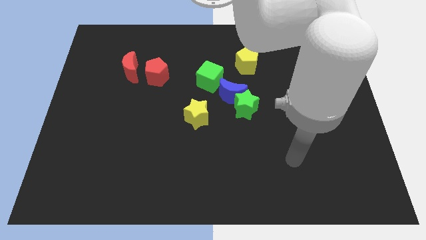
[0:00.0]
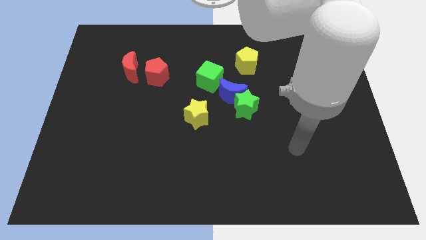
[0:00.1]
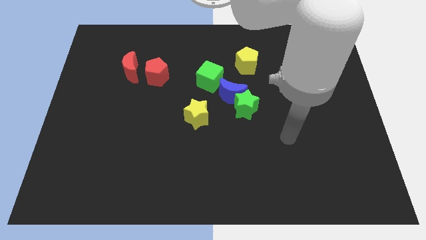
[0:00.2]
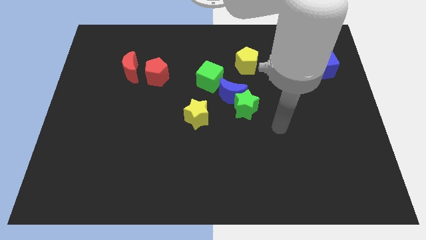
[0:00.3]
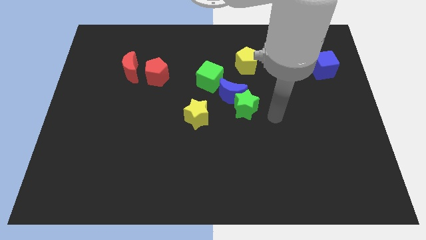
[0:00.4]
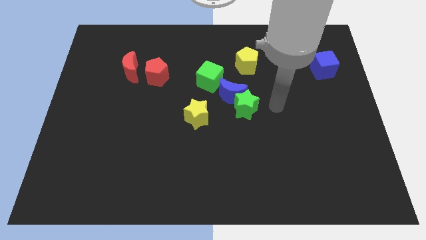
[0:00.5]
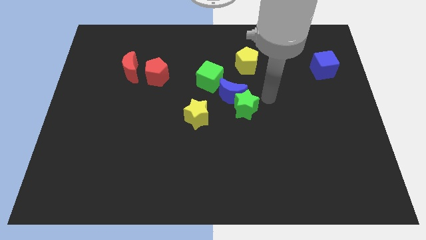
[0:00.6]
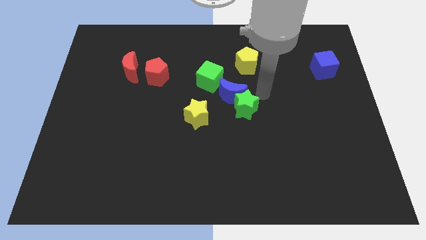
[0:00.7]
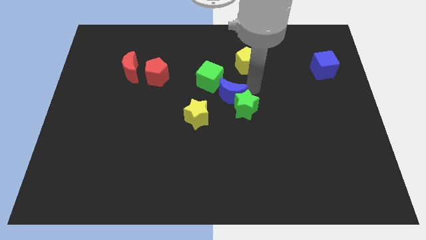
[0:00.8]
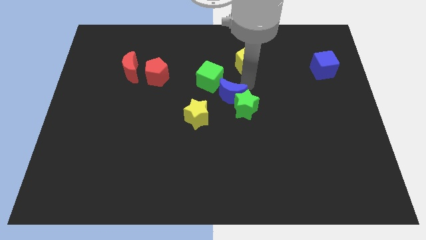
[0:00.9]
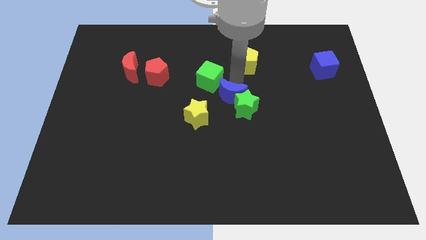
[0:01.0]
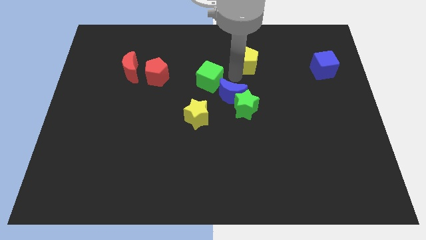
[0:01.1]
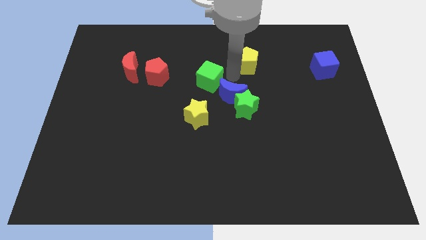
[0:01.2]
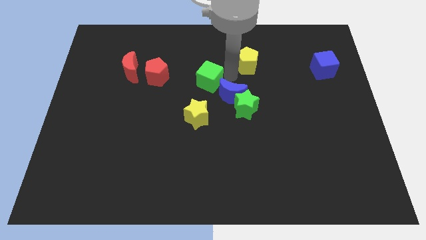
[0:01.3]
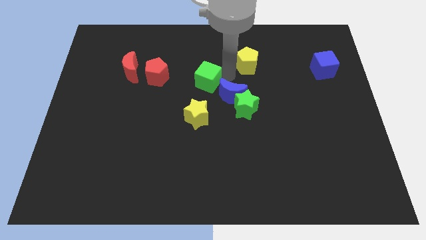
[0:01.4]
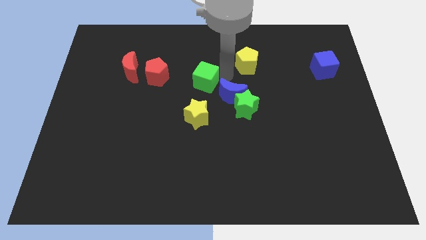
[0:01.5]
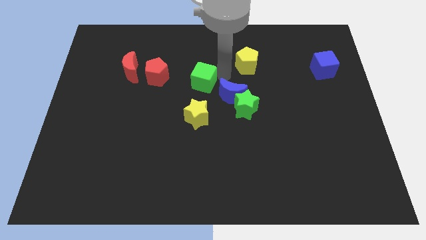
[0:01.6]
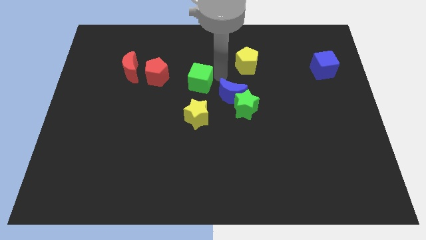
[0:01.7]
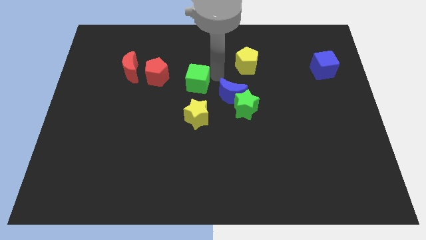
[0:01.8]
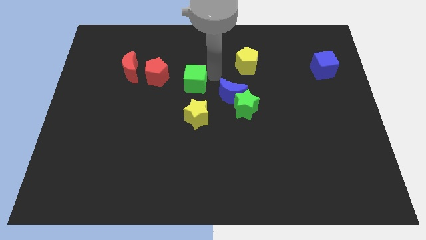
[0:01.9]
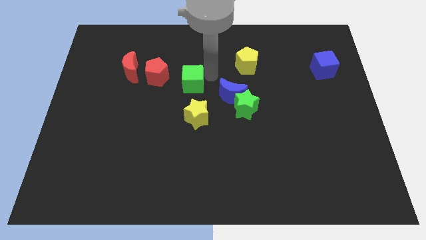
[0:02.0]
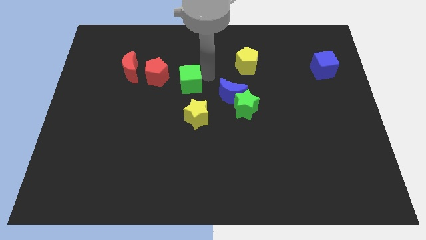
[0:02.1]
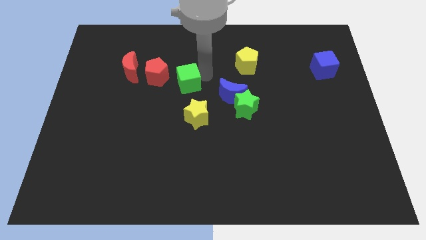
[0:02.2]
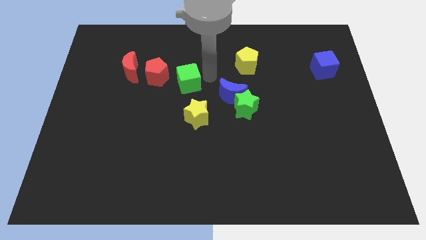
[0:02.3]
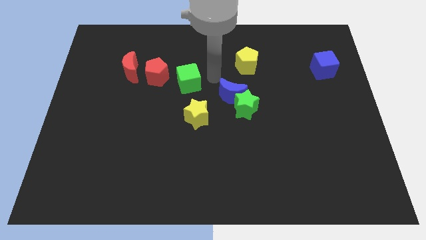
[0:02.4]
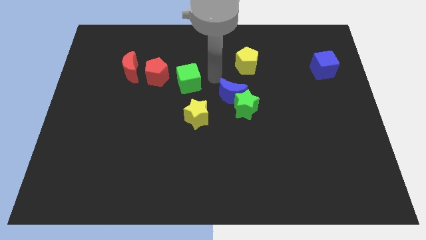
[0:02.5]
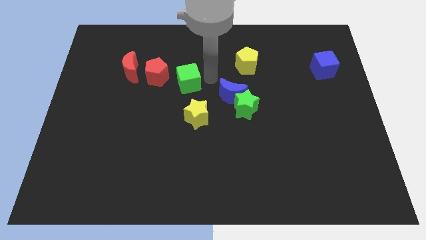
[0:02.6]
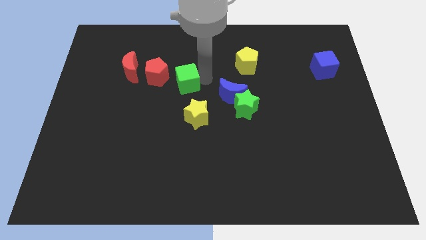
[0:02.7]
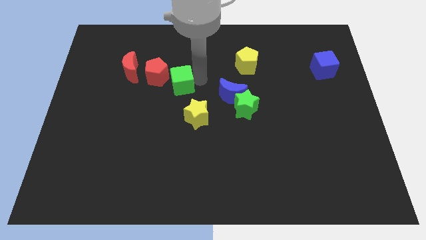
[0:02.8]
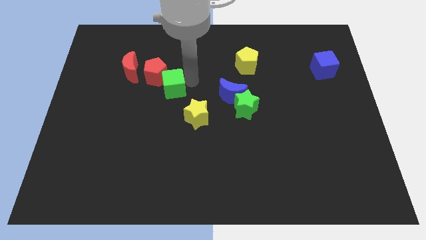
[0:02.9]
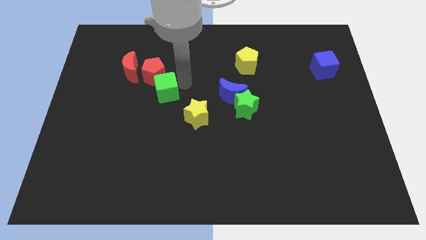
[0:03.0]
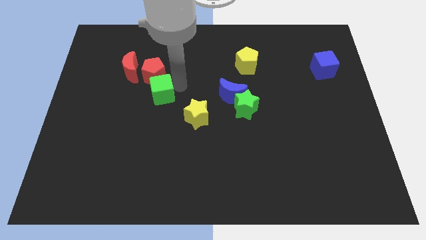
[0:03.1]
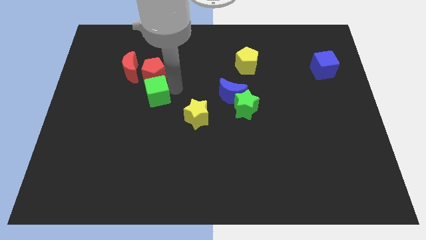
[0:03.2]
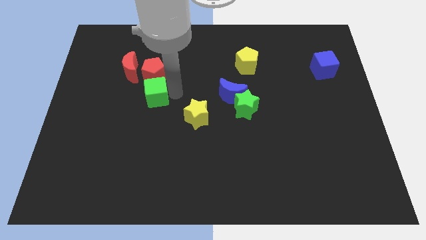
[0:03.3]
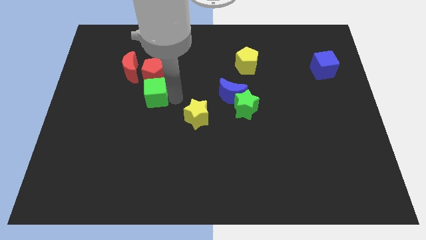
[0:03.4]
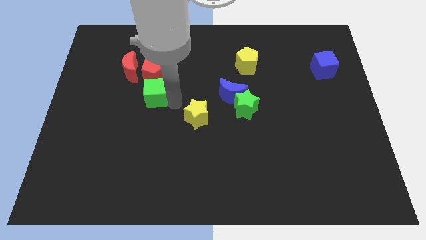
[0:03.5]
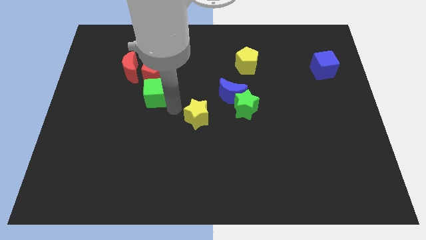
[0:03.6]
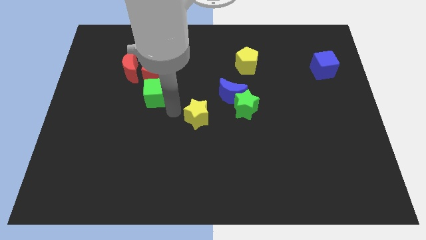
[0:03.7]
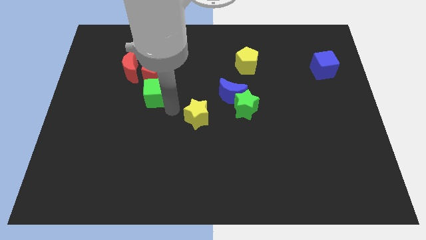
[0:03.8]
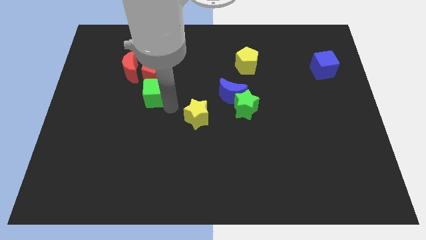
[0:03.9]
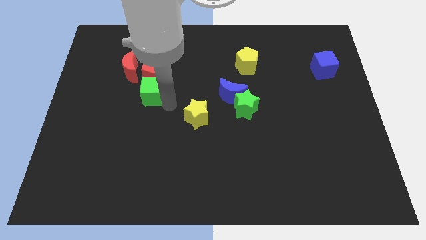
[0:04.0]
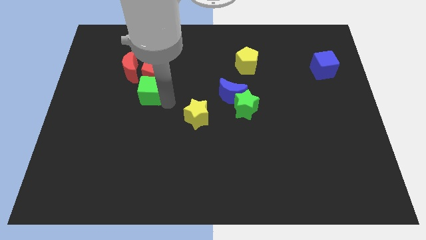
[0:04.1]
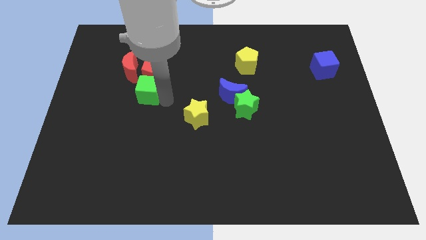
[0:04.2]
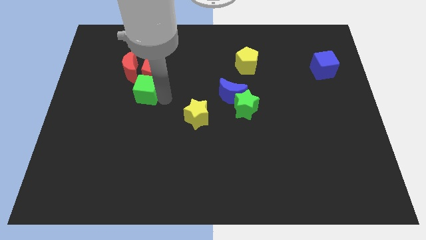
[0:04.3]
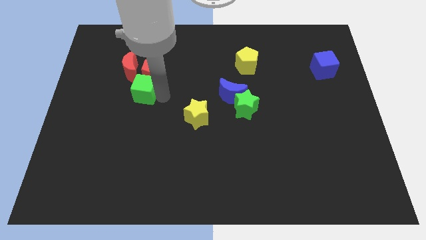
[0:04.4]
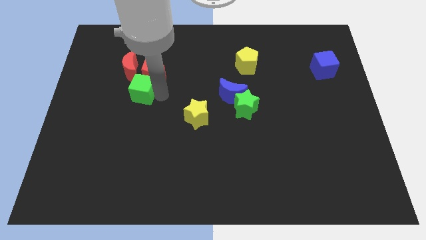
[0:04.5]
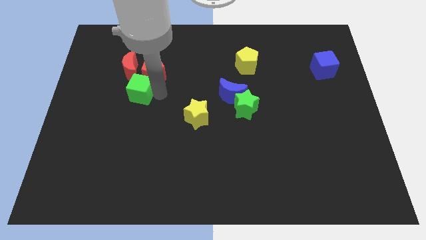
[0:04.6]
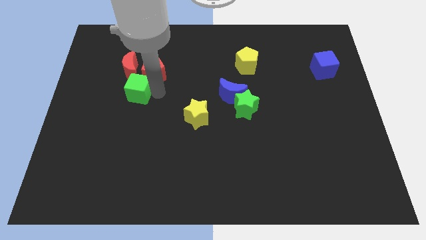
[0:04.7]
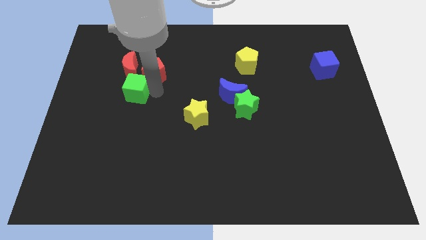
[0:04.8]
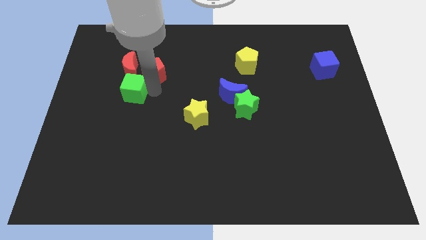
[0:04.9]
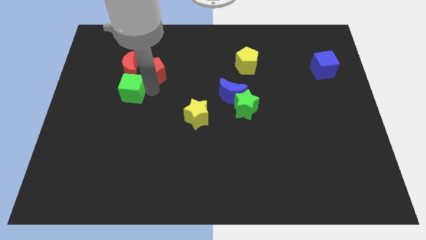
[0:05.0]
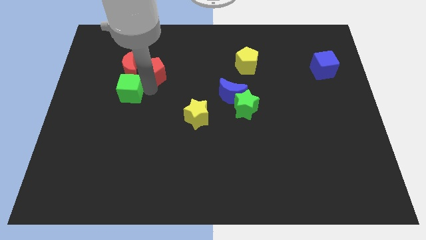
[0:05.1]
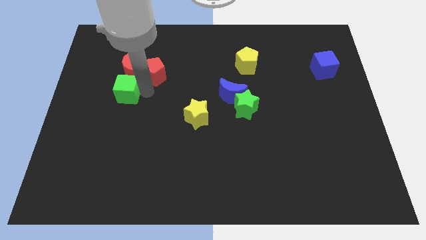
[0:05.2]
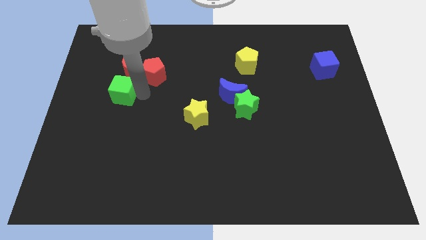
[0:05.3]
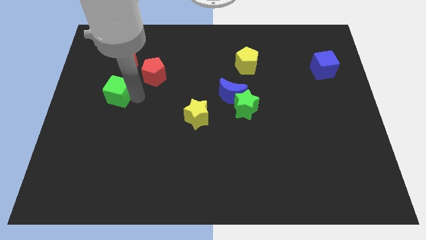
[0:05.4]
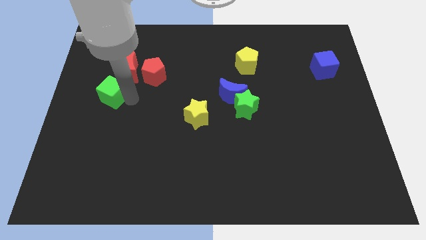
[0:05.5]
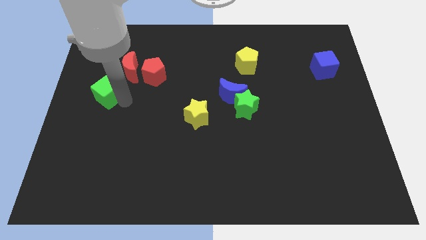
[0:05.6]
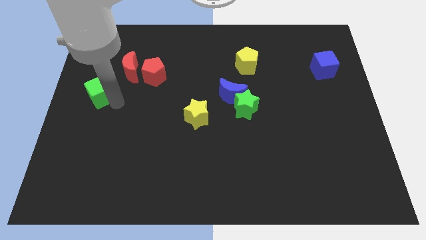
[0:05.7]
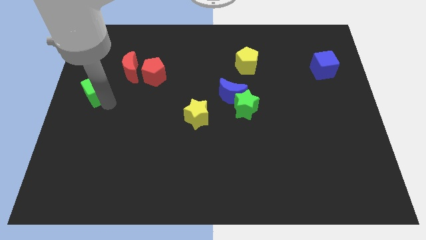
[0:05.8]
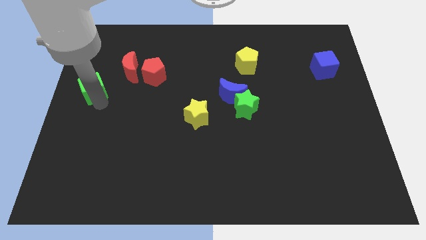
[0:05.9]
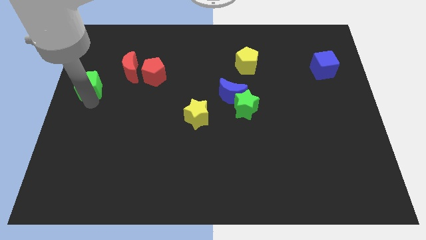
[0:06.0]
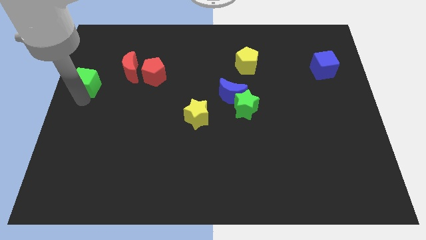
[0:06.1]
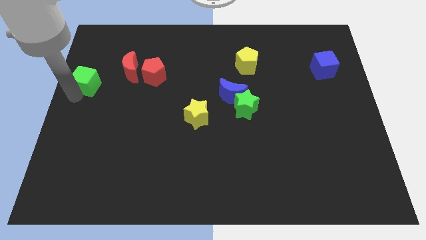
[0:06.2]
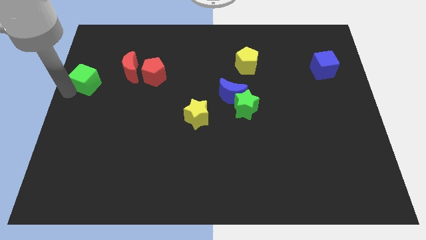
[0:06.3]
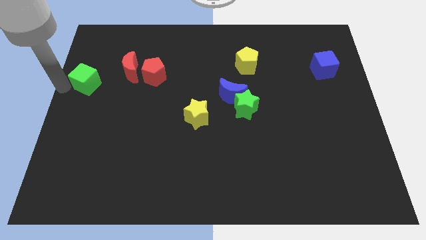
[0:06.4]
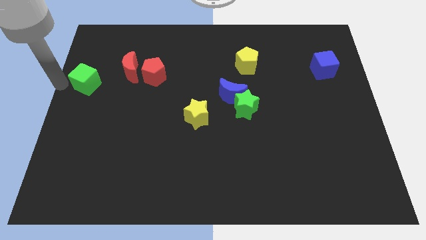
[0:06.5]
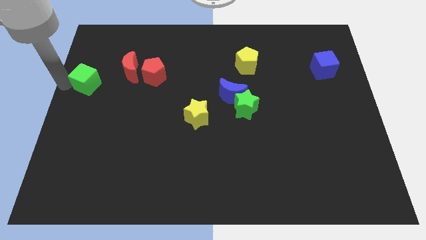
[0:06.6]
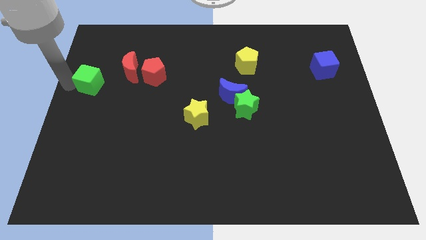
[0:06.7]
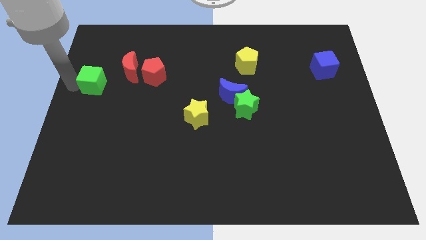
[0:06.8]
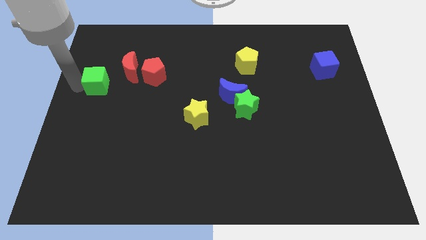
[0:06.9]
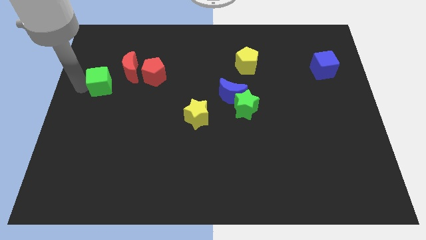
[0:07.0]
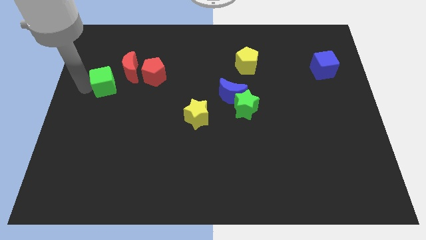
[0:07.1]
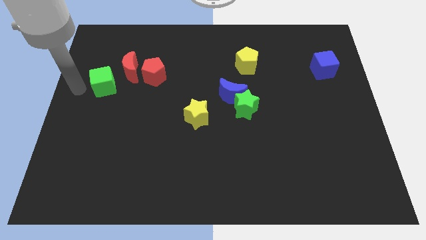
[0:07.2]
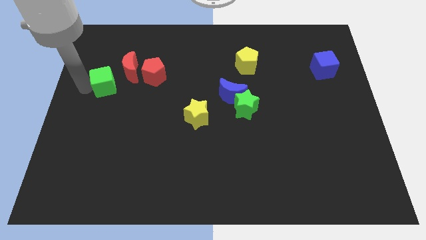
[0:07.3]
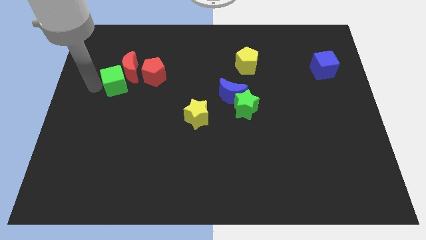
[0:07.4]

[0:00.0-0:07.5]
slide the green cube close to the red moon

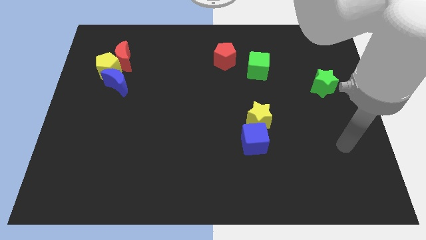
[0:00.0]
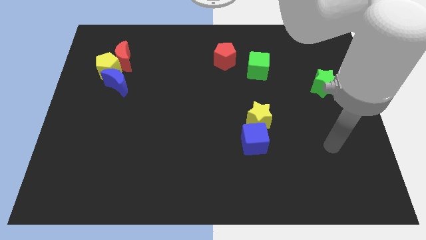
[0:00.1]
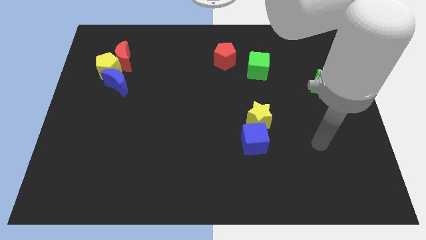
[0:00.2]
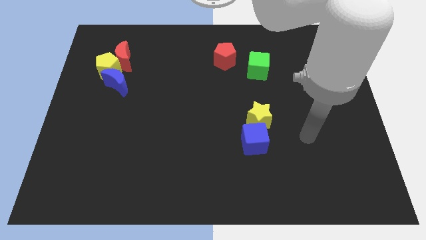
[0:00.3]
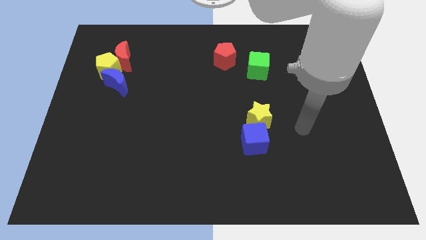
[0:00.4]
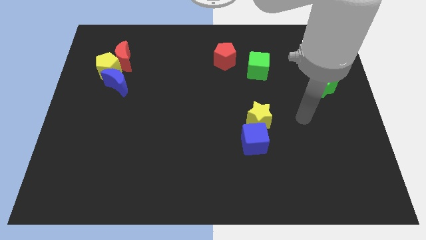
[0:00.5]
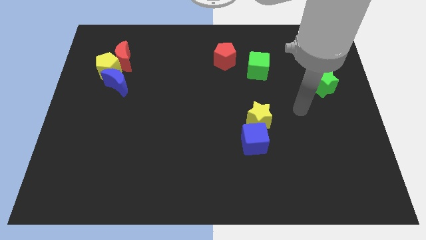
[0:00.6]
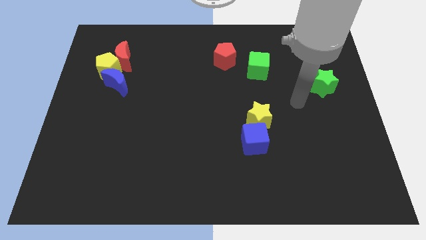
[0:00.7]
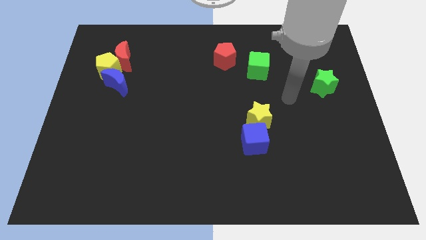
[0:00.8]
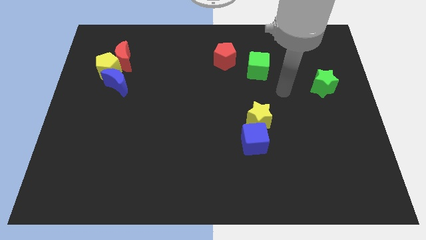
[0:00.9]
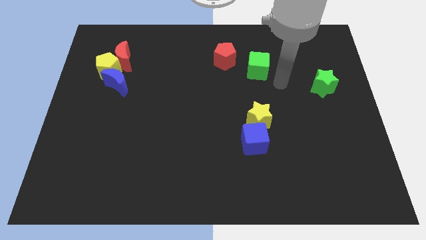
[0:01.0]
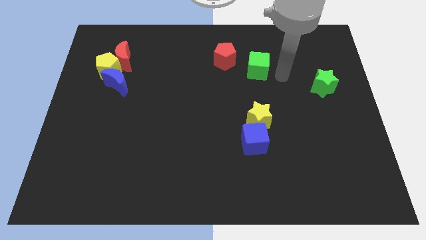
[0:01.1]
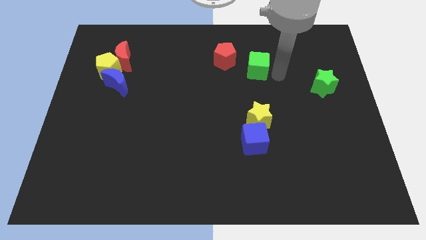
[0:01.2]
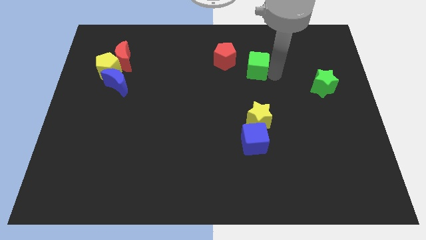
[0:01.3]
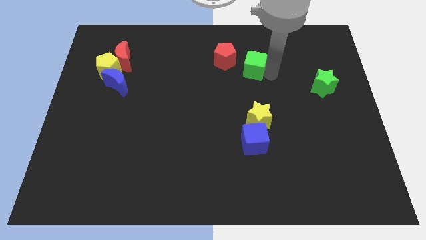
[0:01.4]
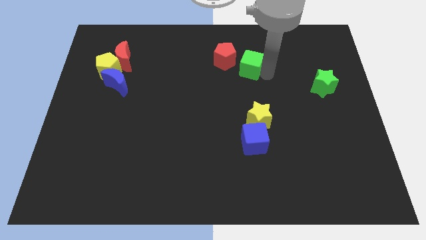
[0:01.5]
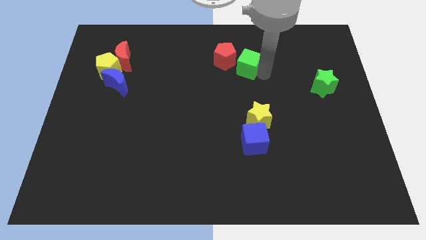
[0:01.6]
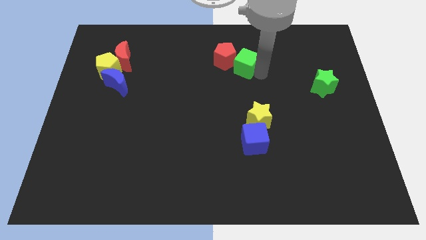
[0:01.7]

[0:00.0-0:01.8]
move the green cube next to the red pentagon
